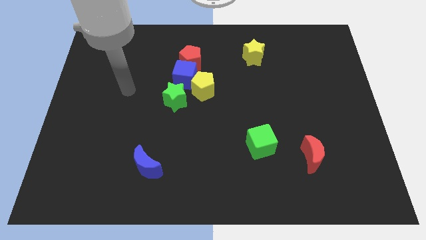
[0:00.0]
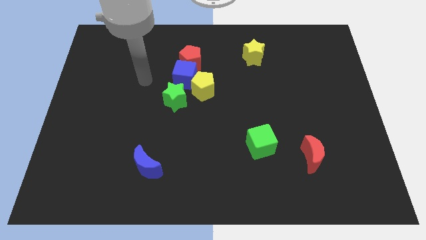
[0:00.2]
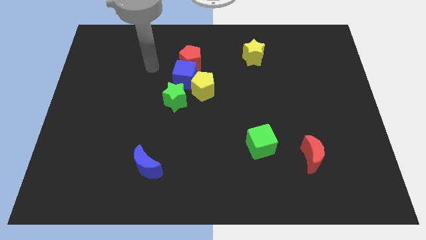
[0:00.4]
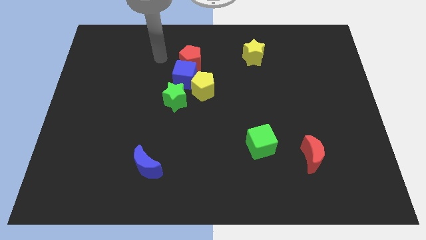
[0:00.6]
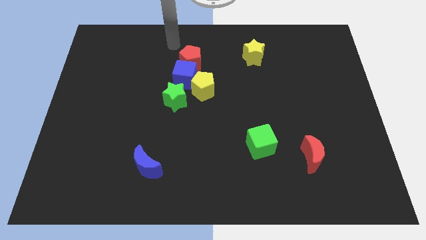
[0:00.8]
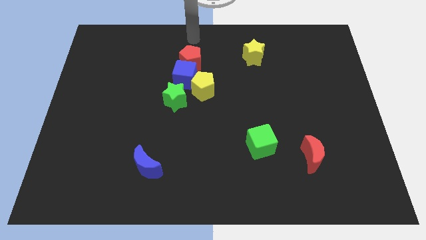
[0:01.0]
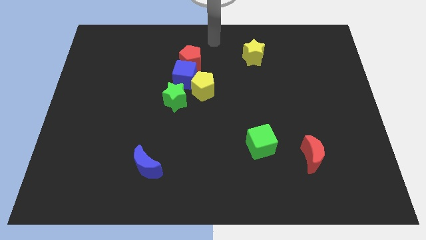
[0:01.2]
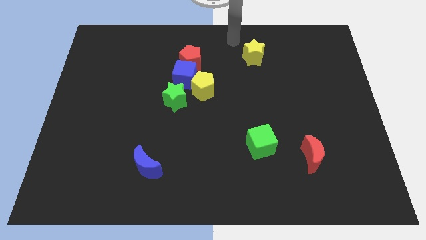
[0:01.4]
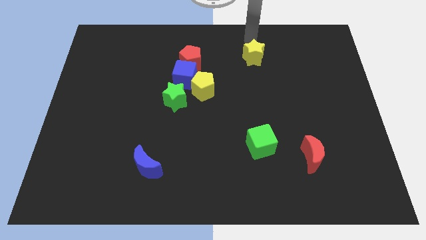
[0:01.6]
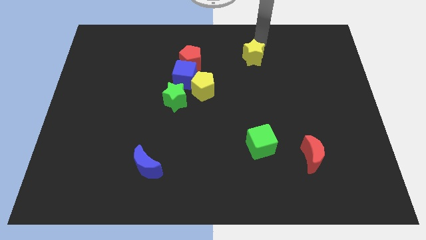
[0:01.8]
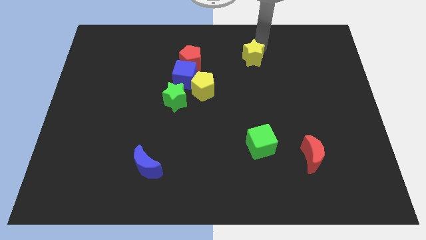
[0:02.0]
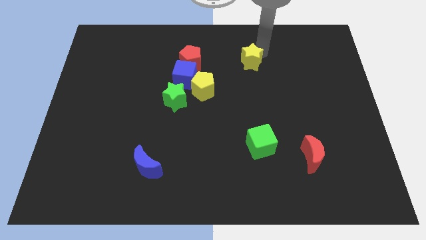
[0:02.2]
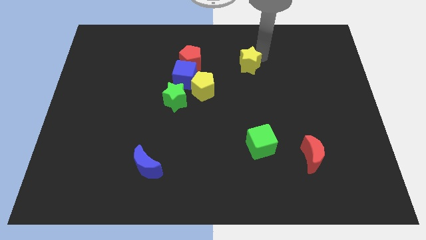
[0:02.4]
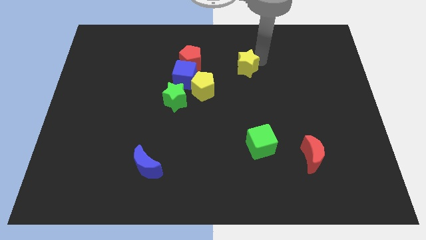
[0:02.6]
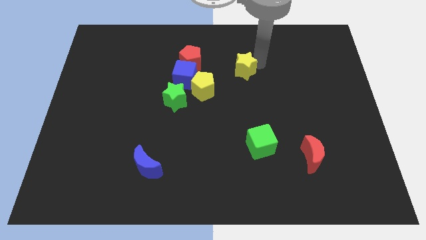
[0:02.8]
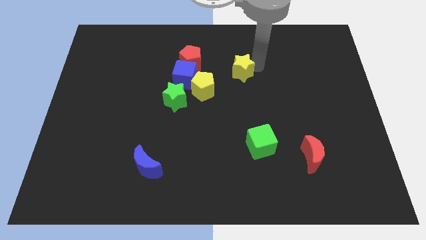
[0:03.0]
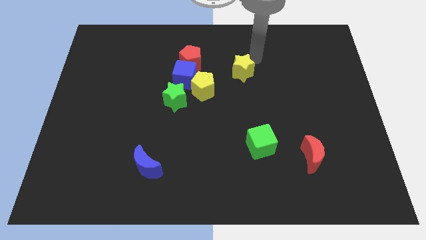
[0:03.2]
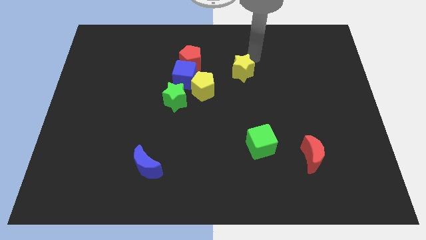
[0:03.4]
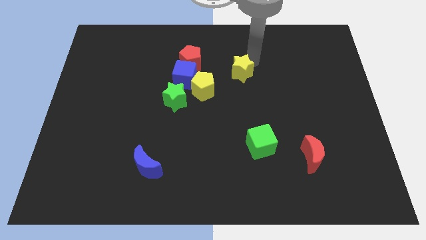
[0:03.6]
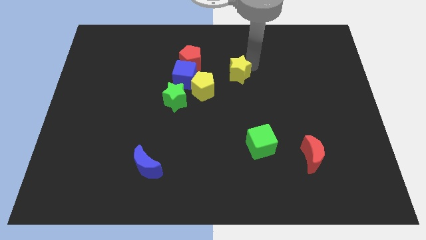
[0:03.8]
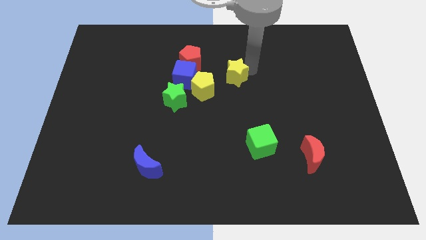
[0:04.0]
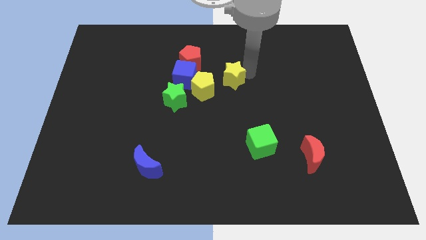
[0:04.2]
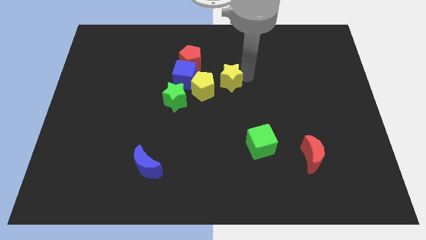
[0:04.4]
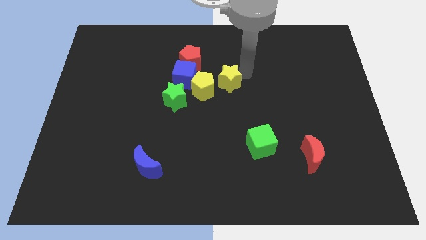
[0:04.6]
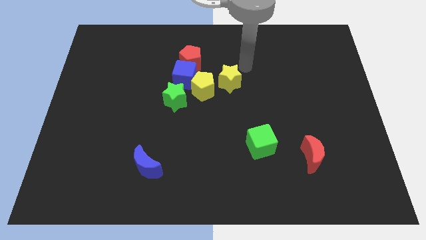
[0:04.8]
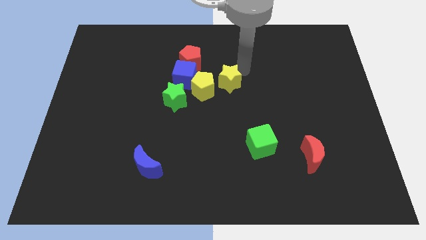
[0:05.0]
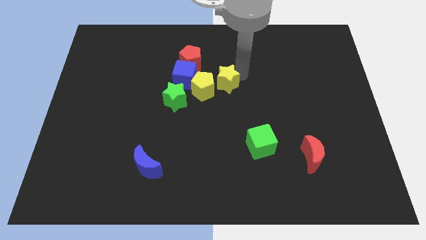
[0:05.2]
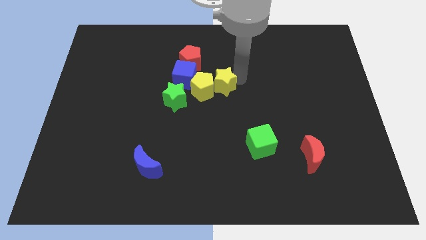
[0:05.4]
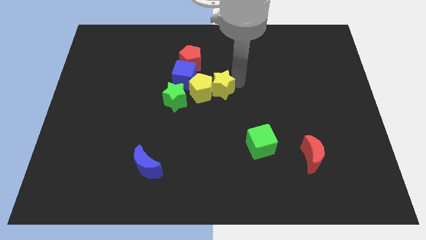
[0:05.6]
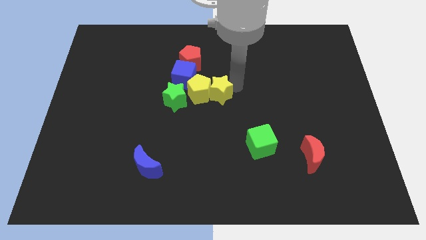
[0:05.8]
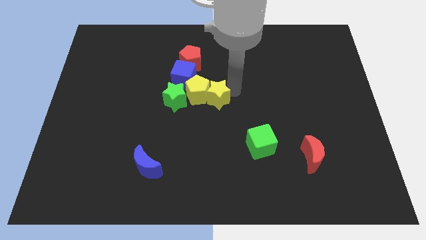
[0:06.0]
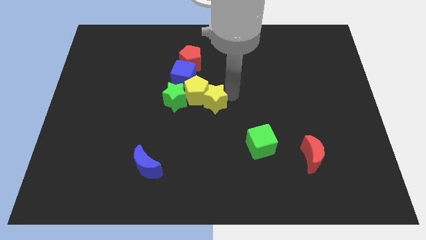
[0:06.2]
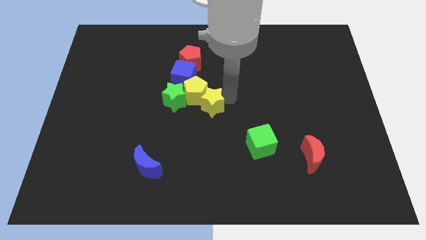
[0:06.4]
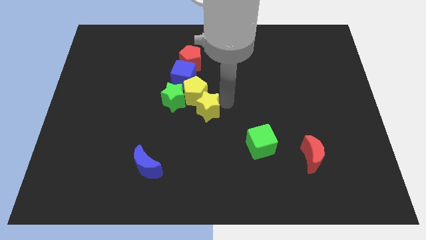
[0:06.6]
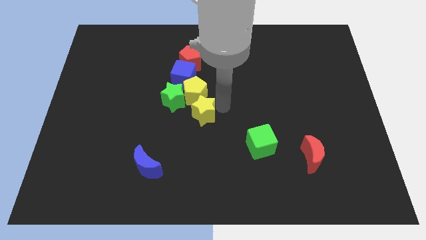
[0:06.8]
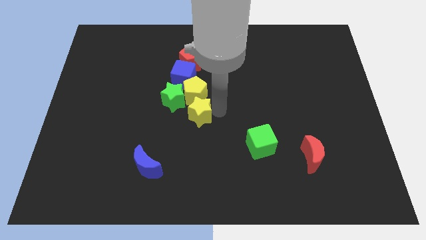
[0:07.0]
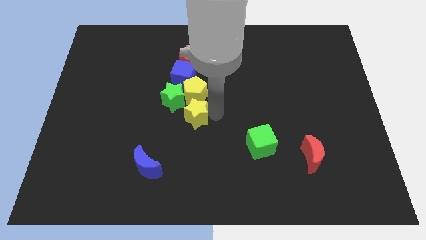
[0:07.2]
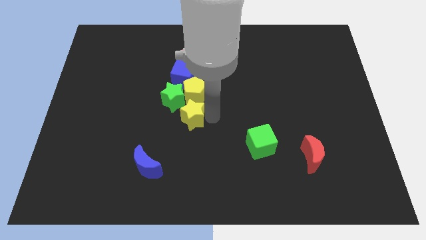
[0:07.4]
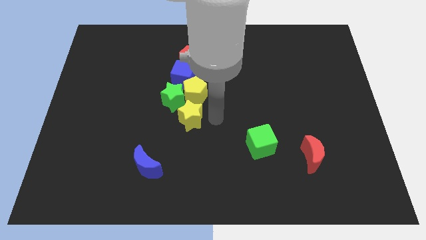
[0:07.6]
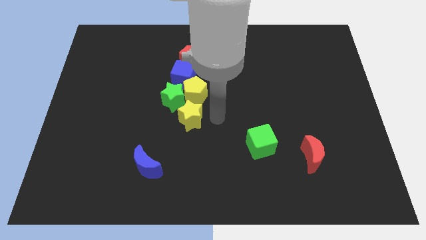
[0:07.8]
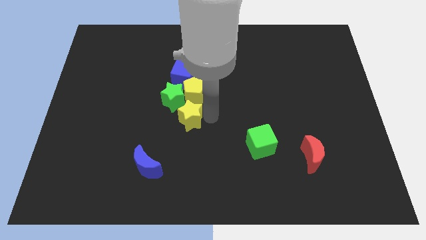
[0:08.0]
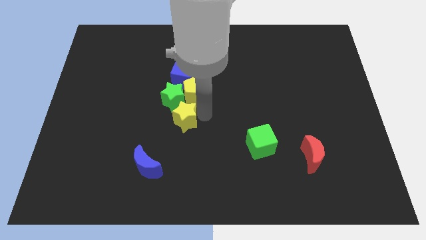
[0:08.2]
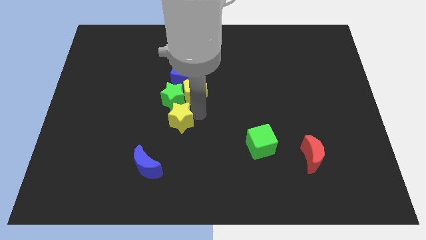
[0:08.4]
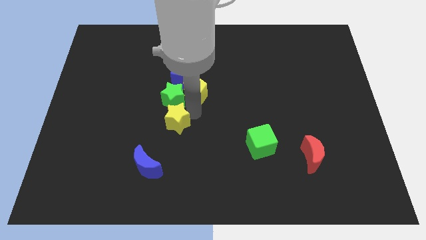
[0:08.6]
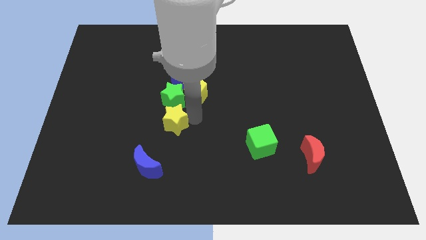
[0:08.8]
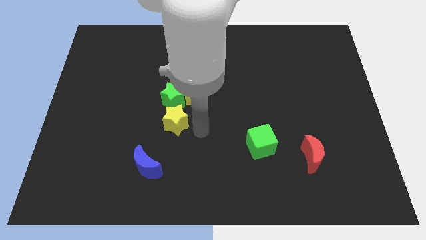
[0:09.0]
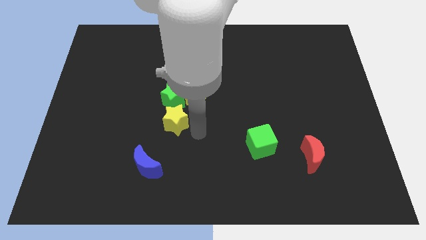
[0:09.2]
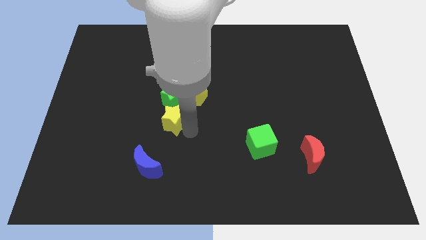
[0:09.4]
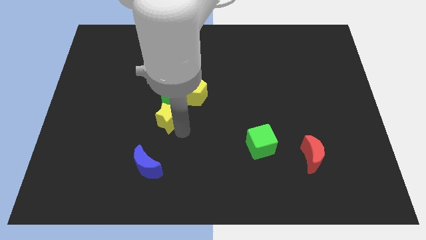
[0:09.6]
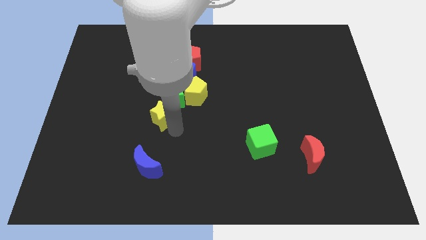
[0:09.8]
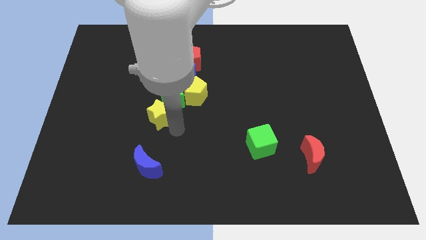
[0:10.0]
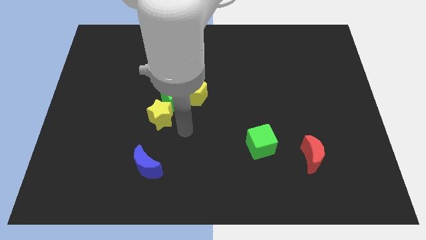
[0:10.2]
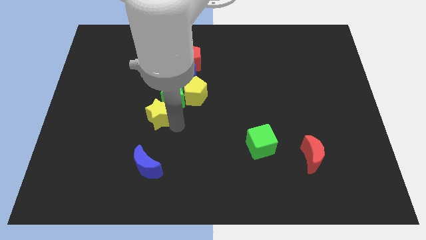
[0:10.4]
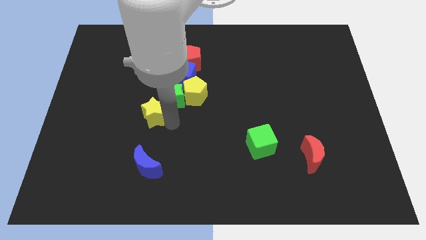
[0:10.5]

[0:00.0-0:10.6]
move the yellow star left of the green star

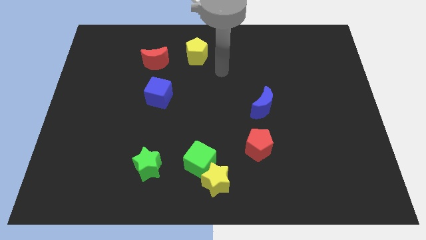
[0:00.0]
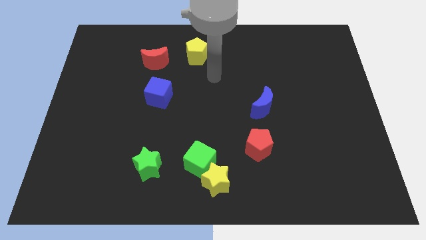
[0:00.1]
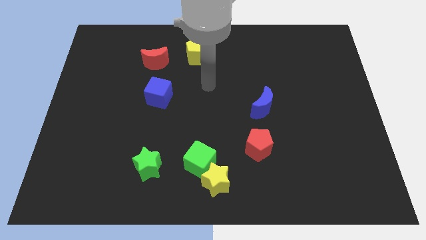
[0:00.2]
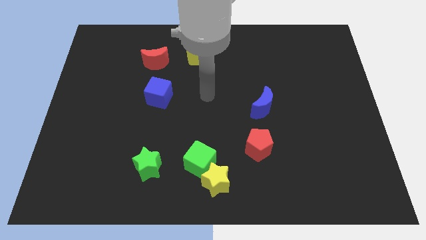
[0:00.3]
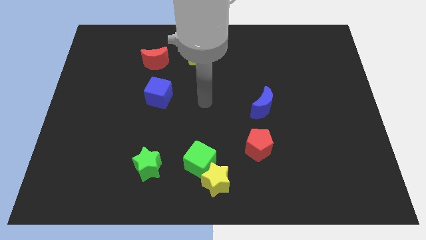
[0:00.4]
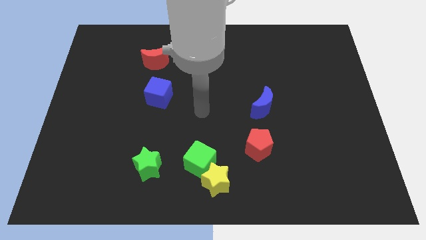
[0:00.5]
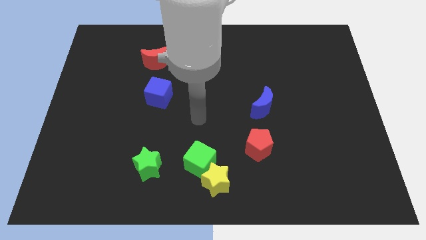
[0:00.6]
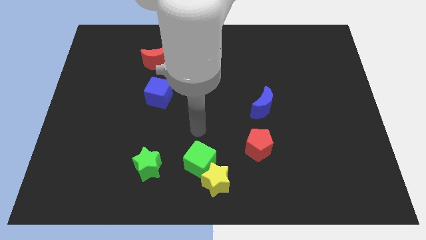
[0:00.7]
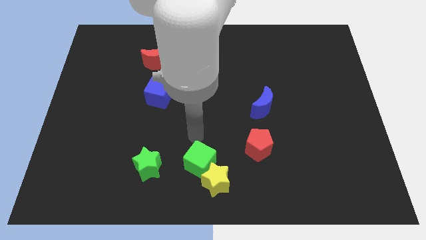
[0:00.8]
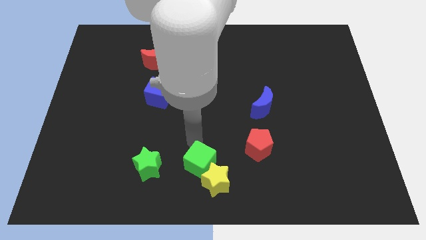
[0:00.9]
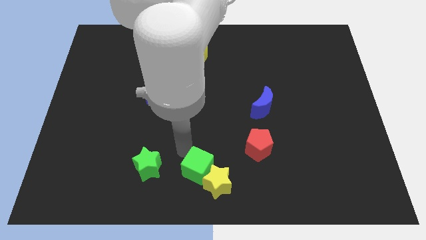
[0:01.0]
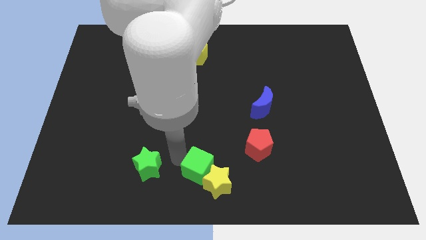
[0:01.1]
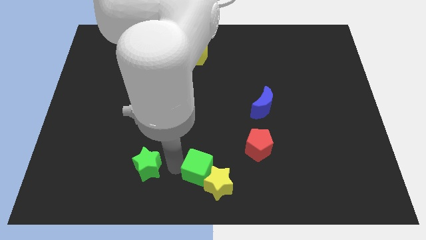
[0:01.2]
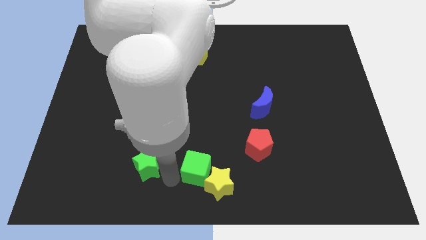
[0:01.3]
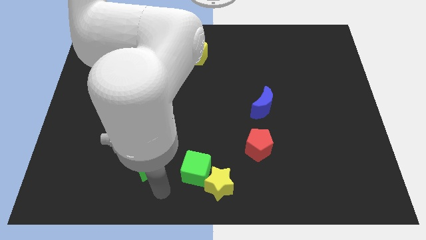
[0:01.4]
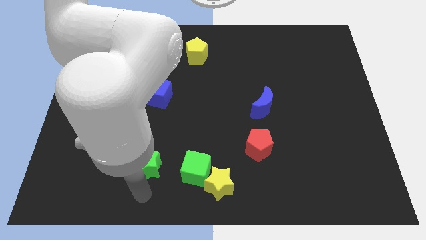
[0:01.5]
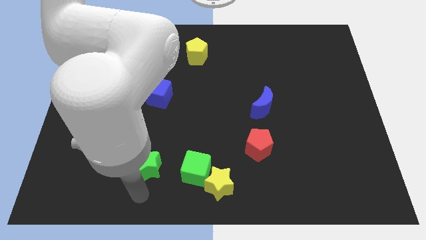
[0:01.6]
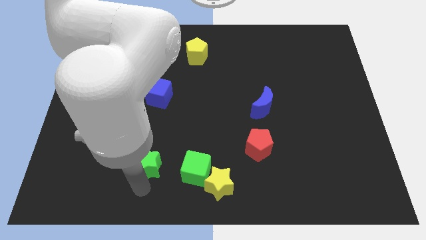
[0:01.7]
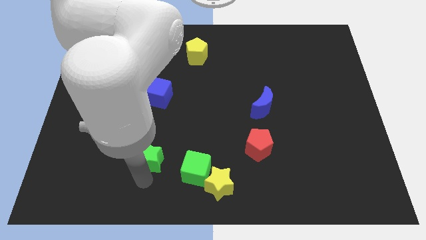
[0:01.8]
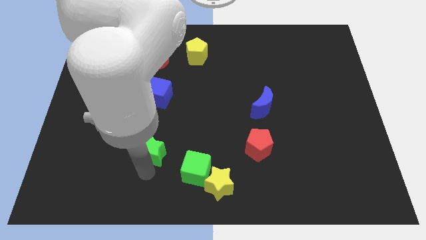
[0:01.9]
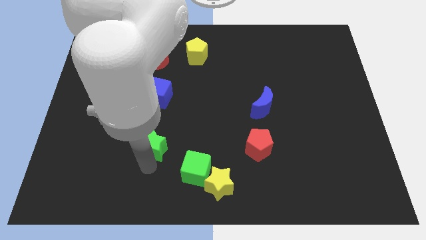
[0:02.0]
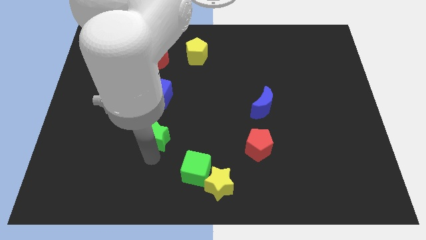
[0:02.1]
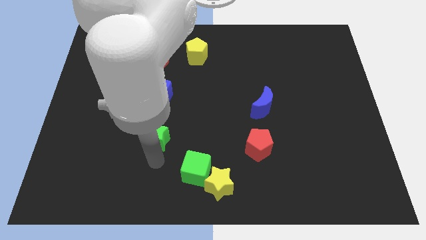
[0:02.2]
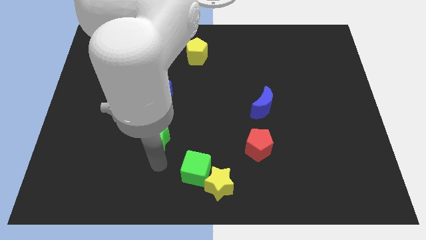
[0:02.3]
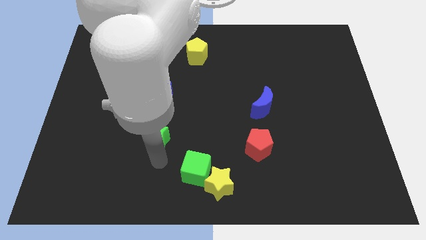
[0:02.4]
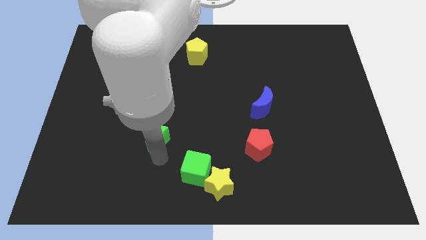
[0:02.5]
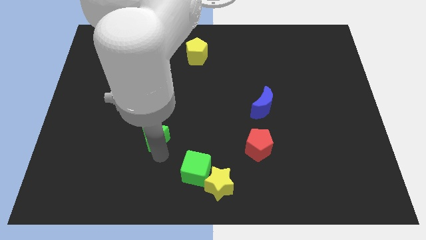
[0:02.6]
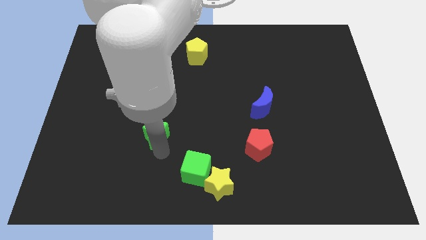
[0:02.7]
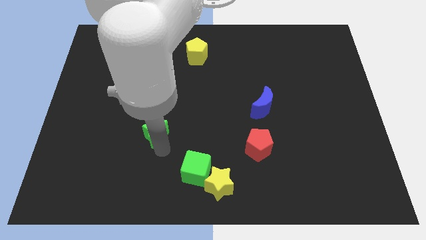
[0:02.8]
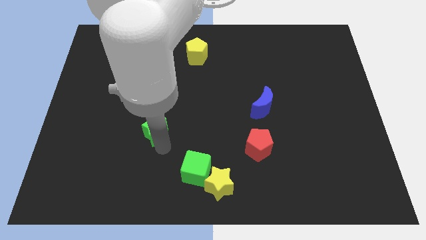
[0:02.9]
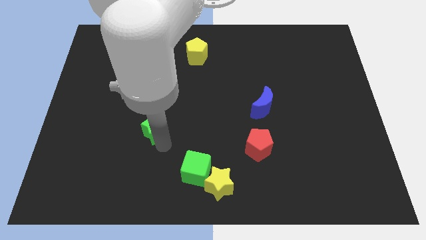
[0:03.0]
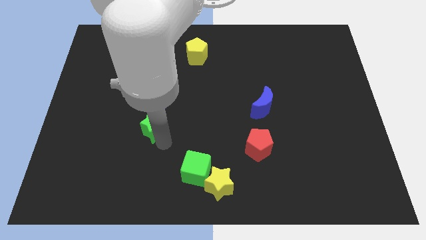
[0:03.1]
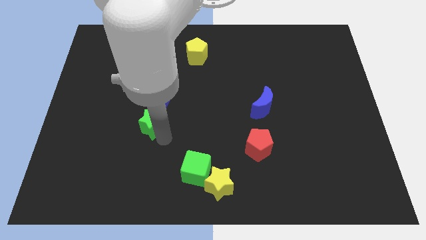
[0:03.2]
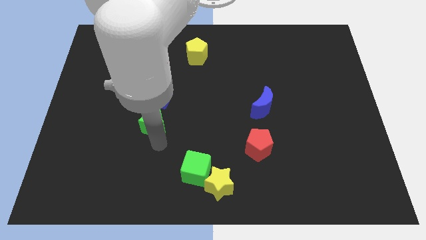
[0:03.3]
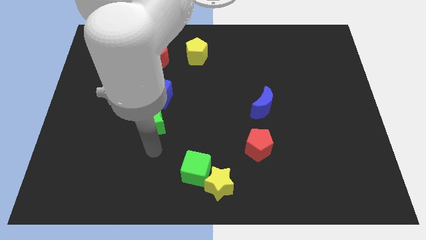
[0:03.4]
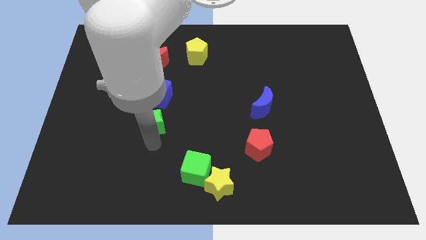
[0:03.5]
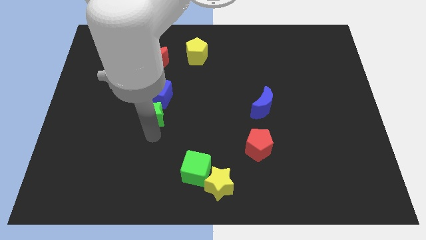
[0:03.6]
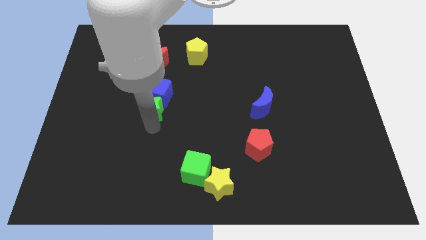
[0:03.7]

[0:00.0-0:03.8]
slide the green star to the bottom of the red moon
